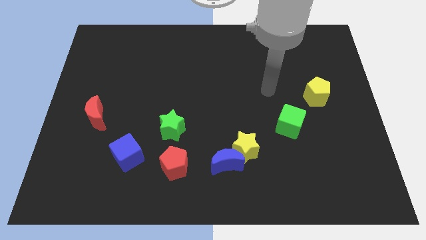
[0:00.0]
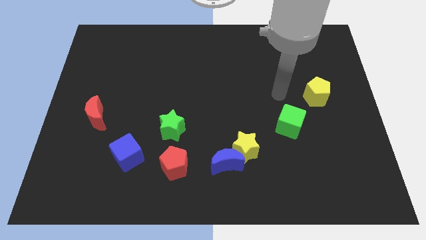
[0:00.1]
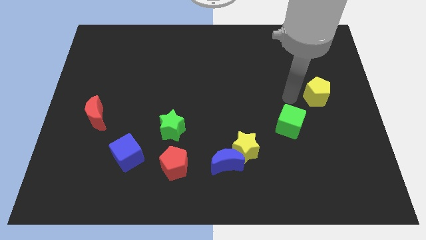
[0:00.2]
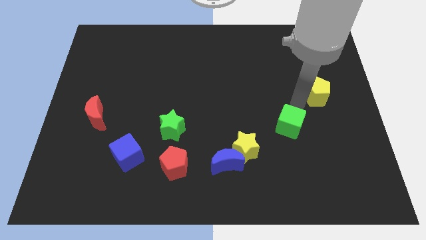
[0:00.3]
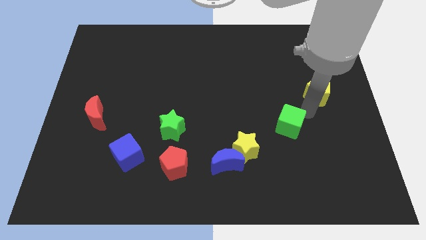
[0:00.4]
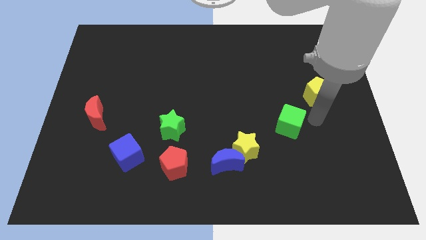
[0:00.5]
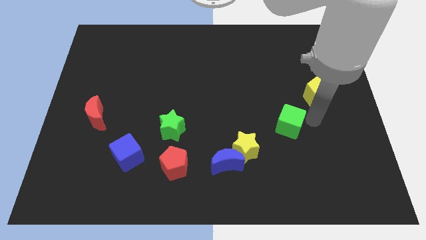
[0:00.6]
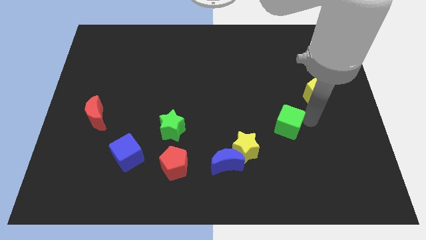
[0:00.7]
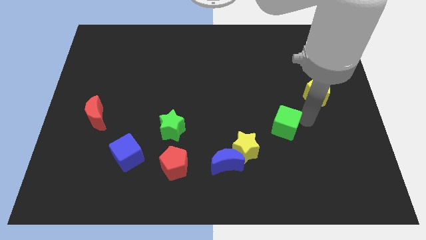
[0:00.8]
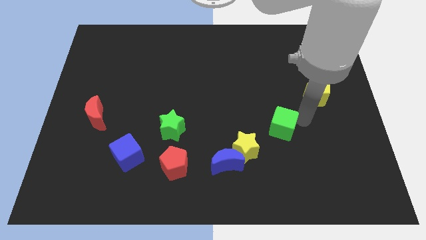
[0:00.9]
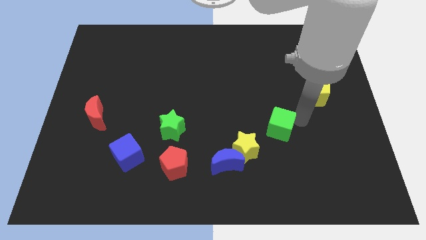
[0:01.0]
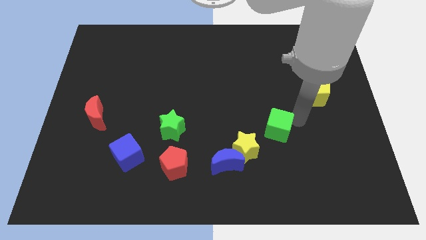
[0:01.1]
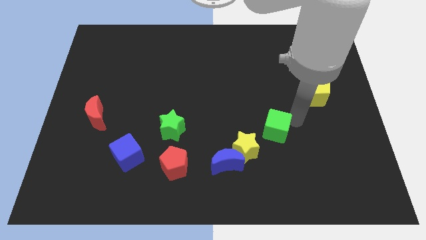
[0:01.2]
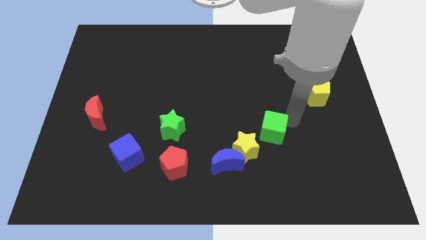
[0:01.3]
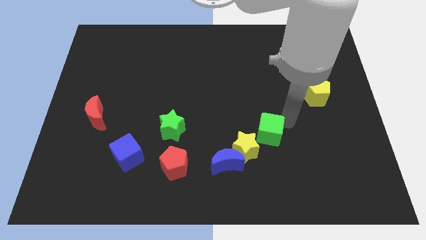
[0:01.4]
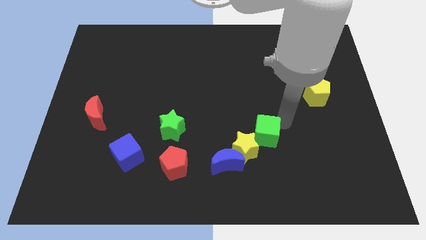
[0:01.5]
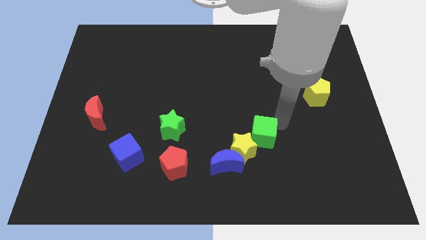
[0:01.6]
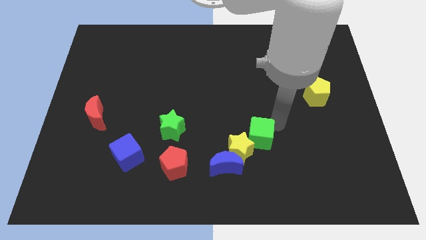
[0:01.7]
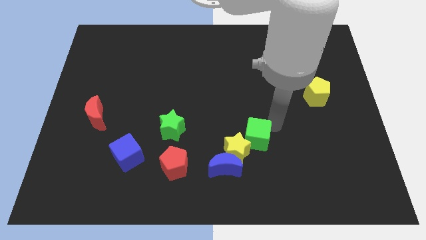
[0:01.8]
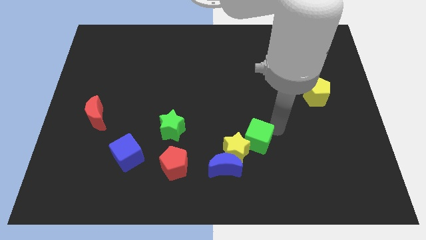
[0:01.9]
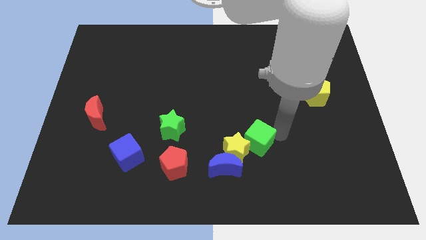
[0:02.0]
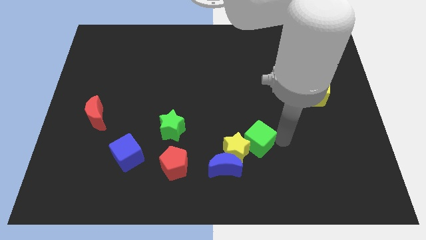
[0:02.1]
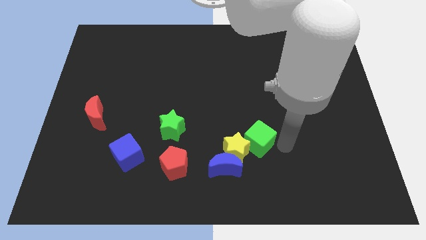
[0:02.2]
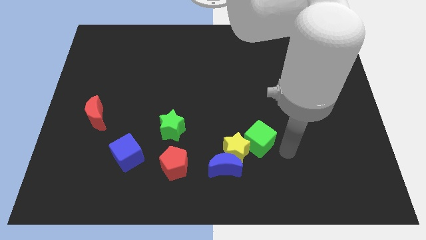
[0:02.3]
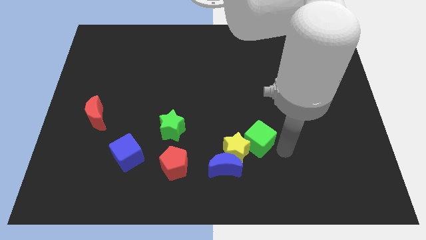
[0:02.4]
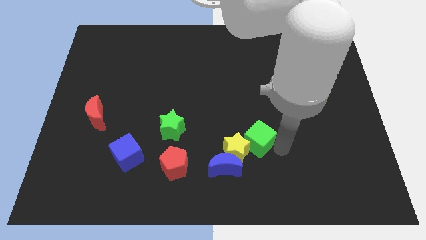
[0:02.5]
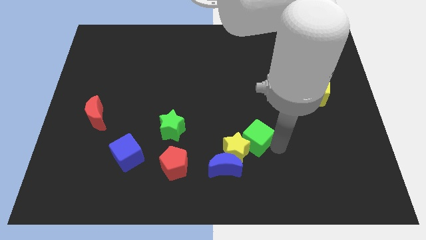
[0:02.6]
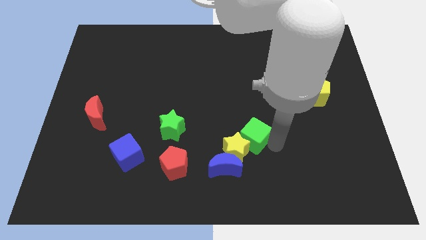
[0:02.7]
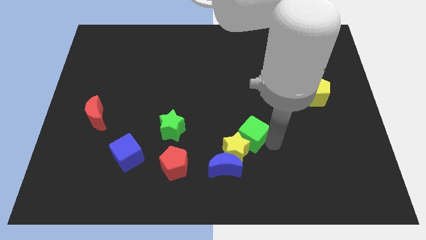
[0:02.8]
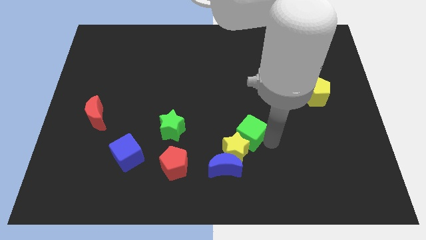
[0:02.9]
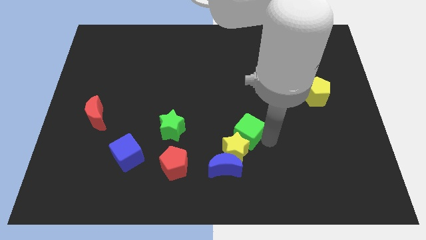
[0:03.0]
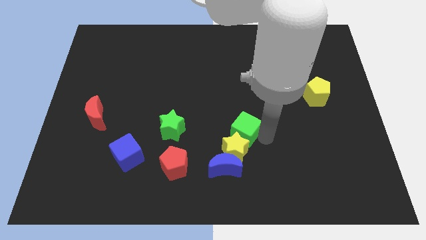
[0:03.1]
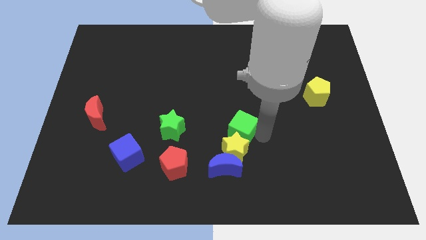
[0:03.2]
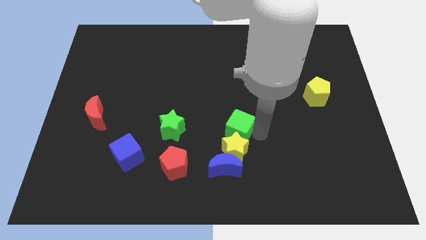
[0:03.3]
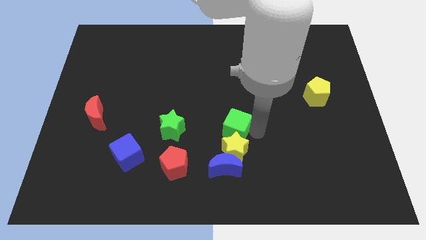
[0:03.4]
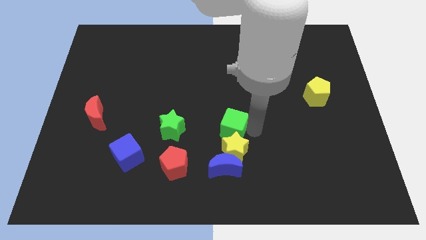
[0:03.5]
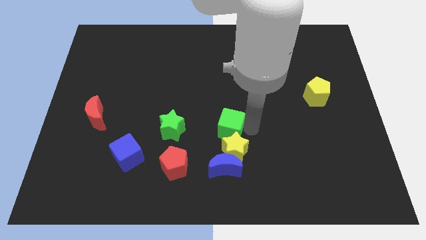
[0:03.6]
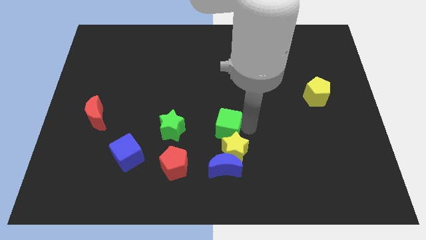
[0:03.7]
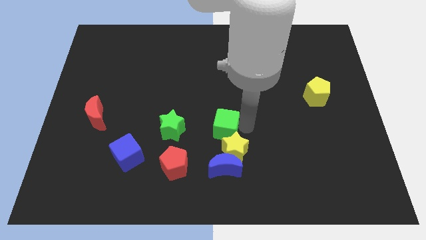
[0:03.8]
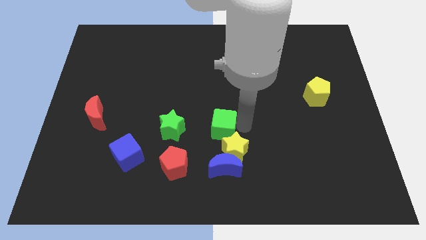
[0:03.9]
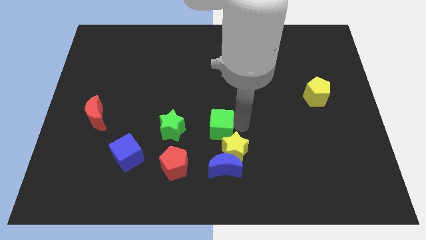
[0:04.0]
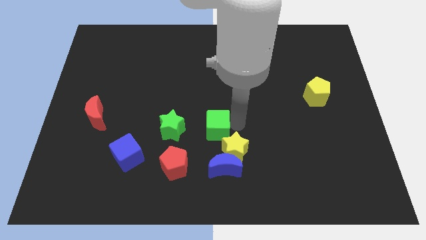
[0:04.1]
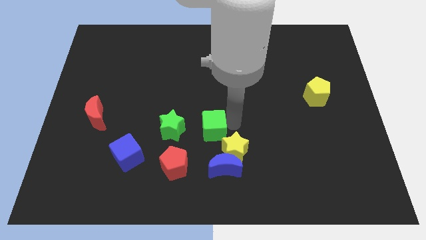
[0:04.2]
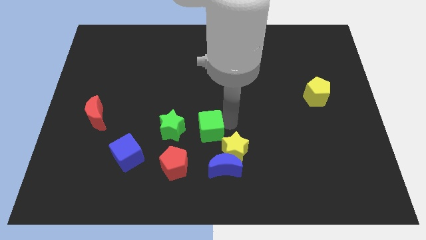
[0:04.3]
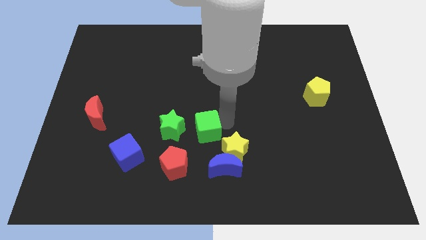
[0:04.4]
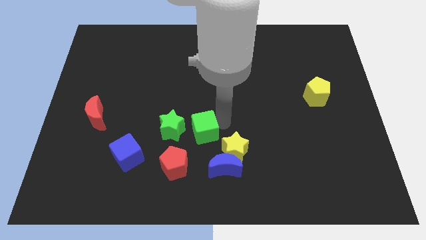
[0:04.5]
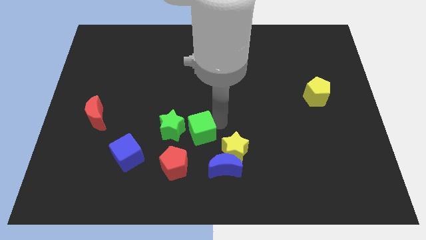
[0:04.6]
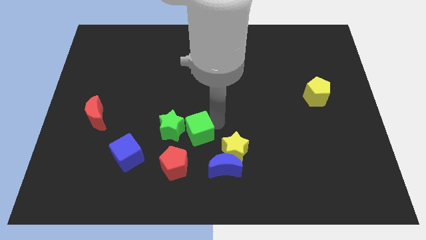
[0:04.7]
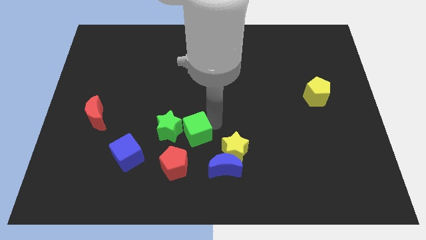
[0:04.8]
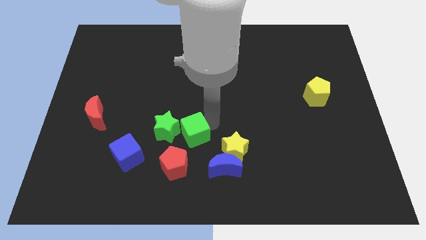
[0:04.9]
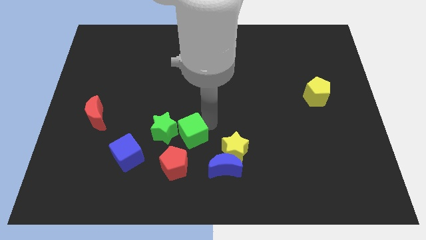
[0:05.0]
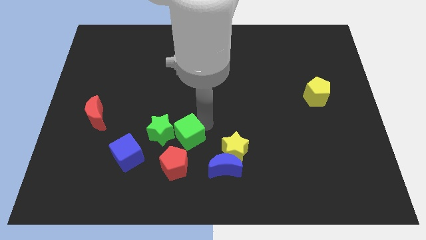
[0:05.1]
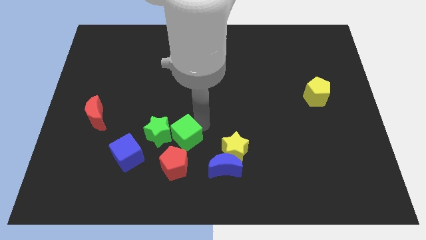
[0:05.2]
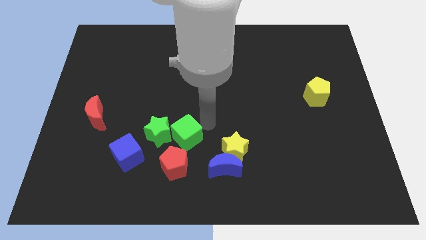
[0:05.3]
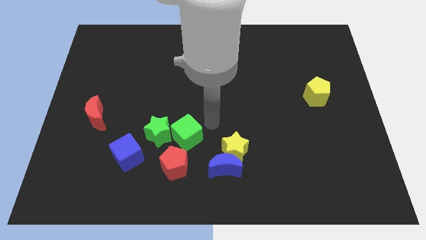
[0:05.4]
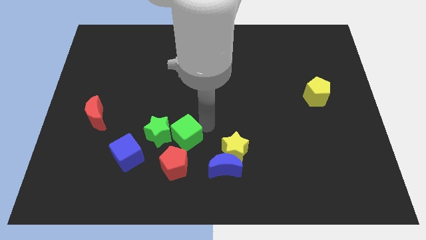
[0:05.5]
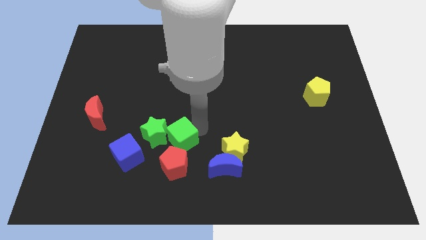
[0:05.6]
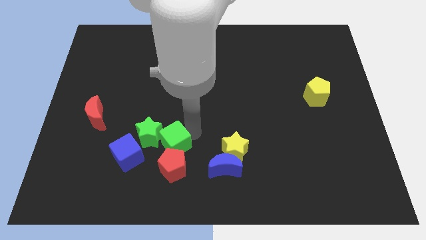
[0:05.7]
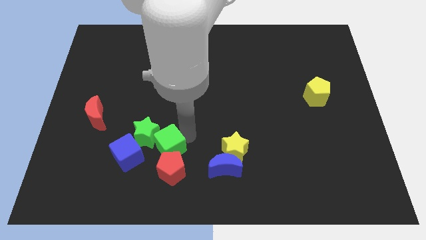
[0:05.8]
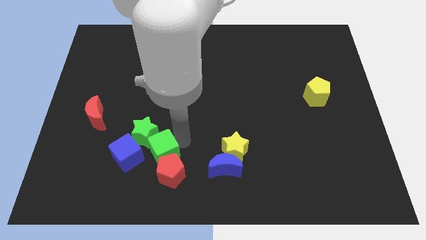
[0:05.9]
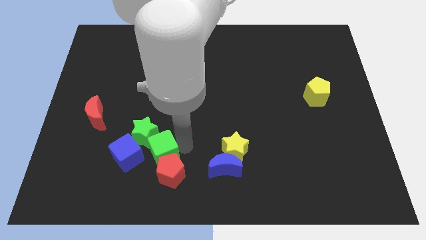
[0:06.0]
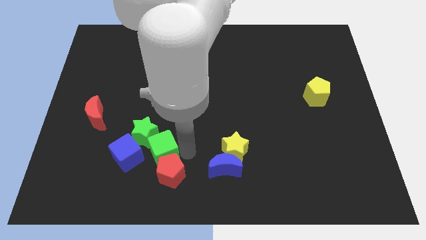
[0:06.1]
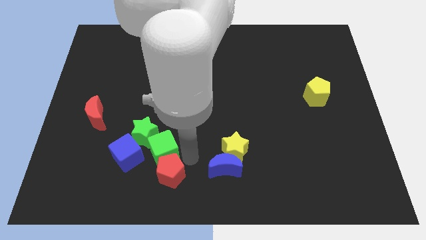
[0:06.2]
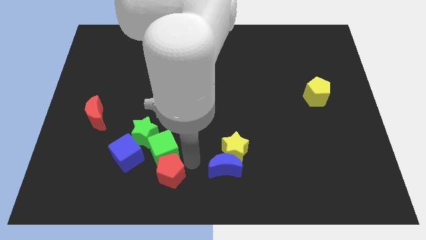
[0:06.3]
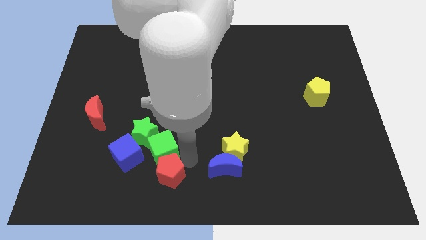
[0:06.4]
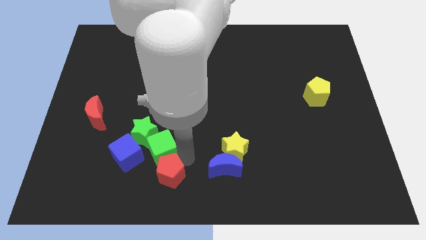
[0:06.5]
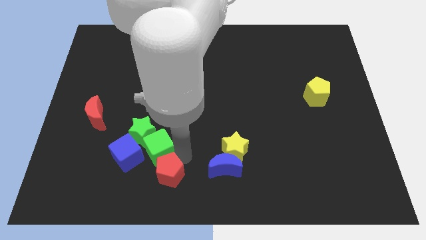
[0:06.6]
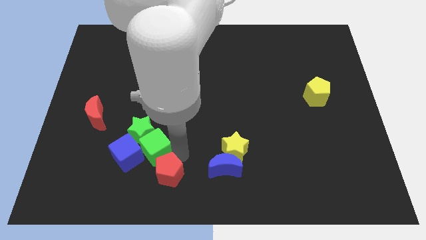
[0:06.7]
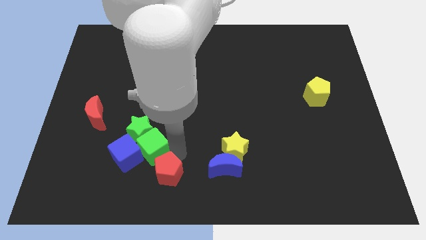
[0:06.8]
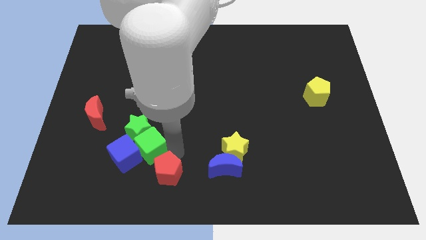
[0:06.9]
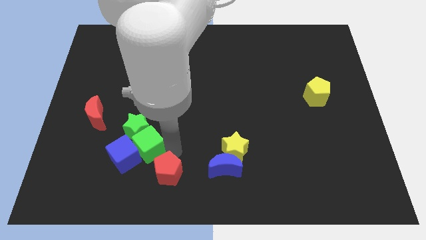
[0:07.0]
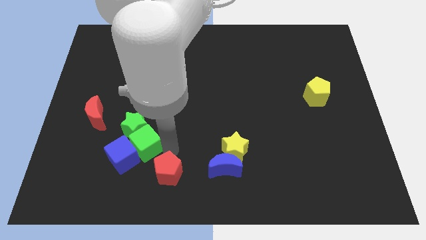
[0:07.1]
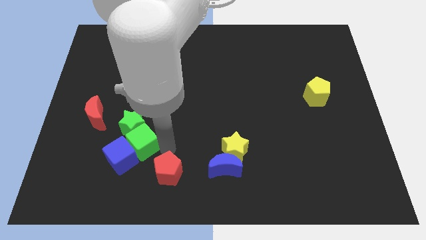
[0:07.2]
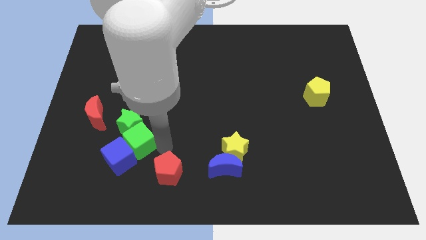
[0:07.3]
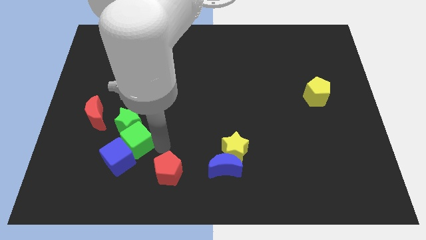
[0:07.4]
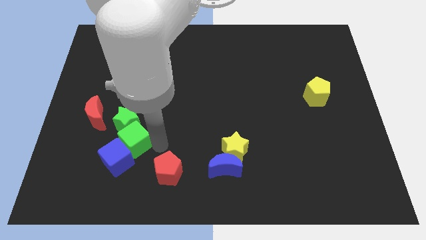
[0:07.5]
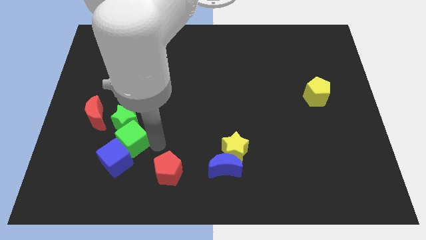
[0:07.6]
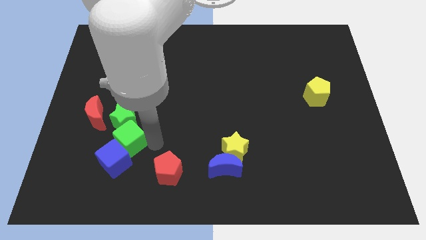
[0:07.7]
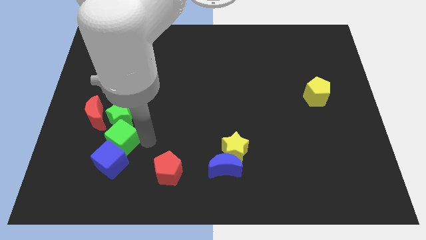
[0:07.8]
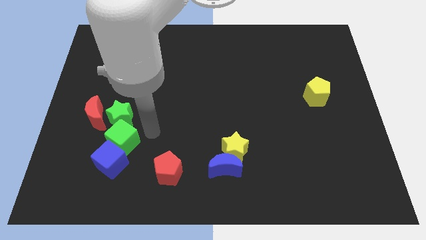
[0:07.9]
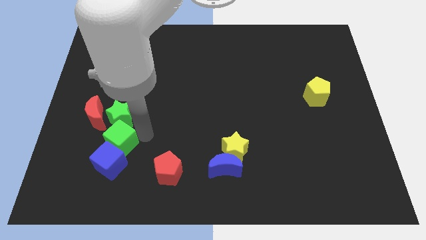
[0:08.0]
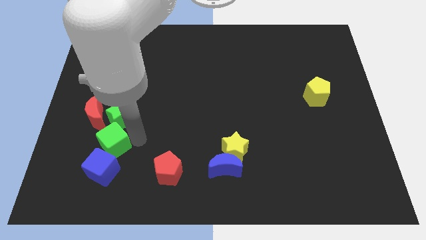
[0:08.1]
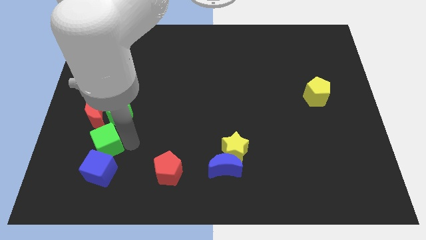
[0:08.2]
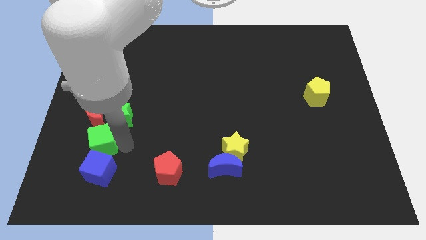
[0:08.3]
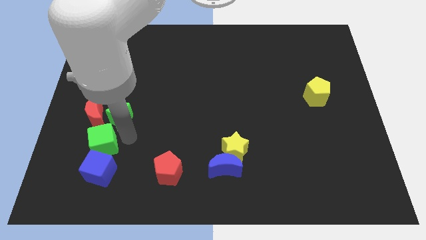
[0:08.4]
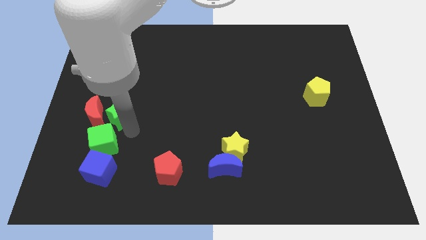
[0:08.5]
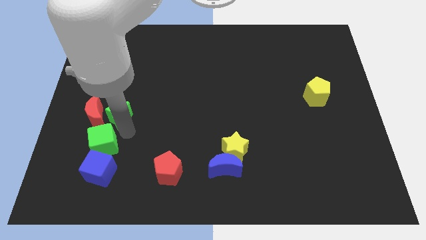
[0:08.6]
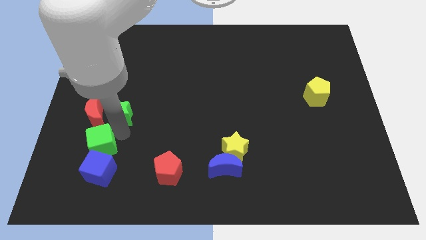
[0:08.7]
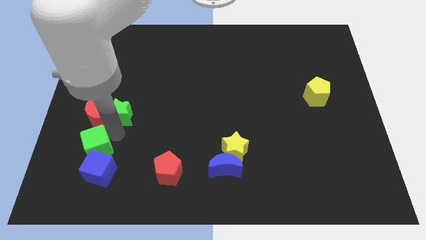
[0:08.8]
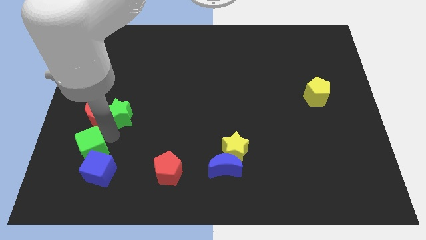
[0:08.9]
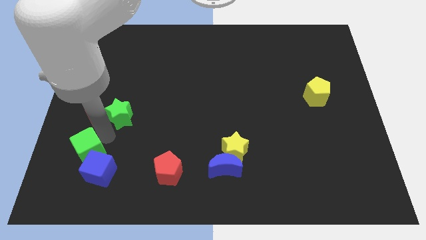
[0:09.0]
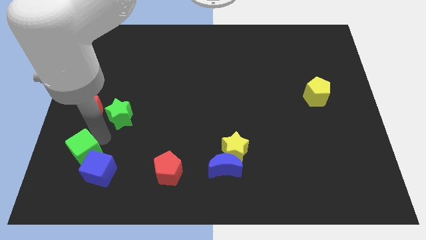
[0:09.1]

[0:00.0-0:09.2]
move the green cube to the left side of the blue cube
